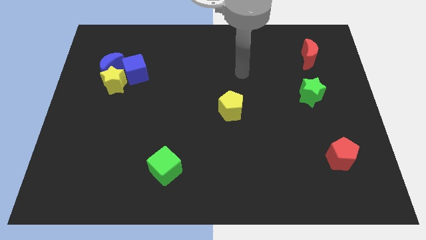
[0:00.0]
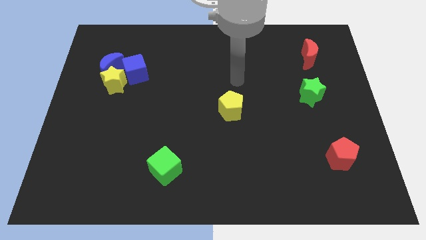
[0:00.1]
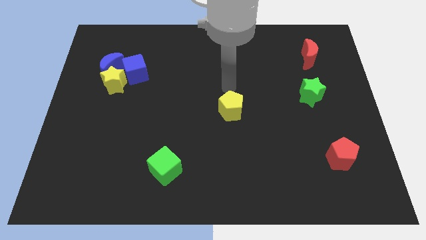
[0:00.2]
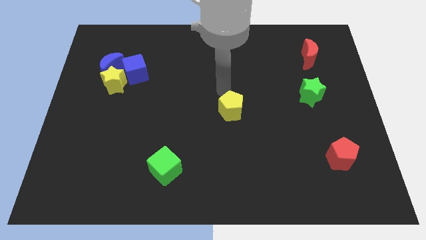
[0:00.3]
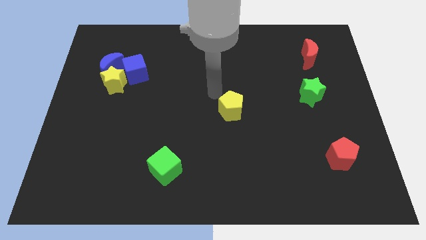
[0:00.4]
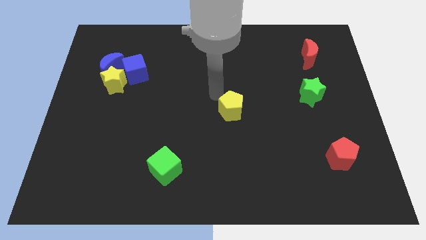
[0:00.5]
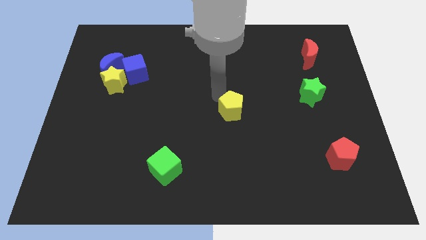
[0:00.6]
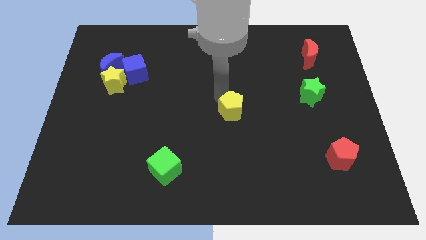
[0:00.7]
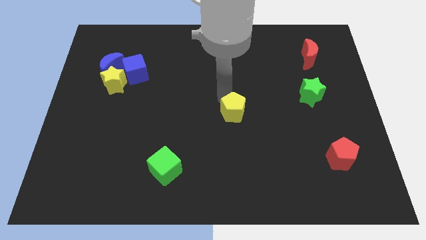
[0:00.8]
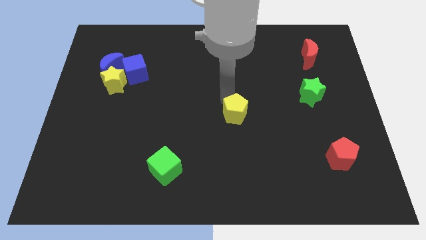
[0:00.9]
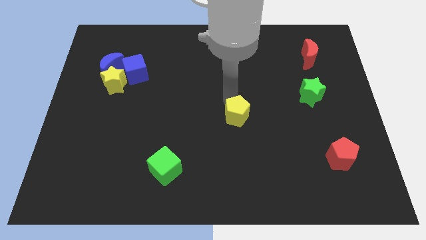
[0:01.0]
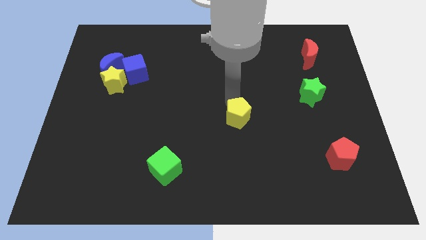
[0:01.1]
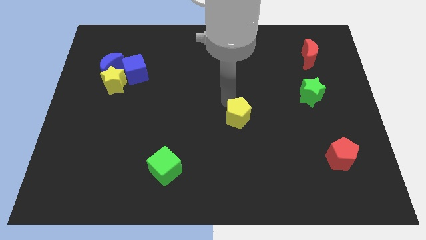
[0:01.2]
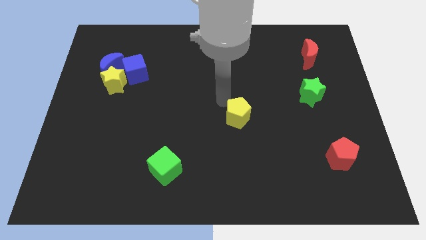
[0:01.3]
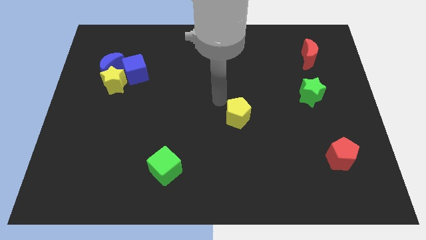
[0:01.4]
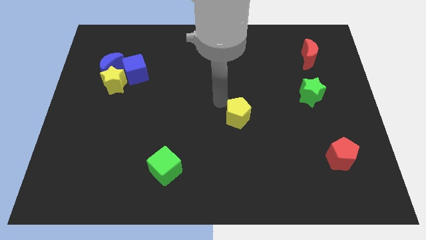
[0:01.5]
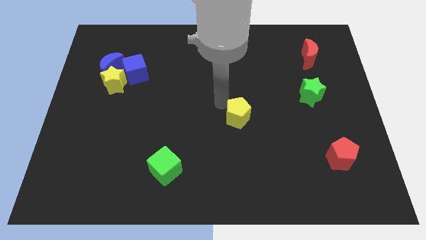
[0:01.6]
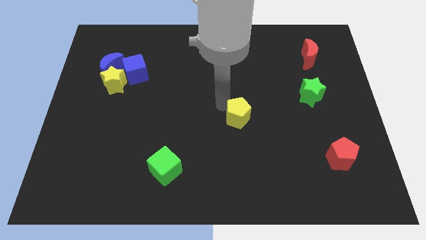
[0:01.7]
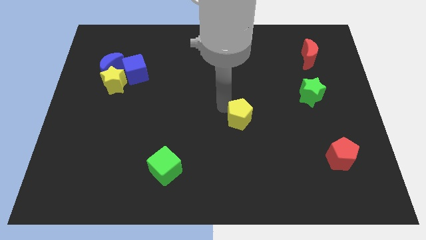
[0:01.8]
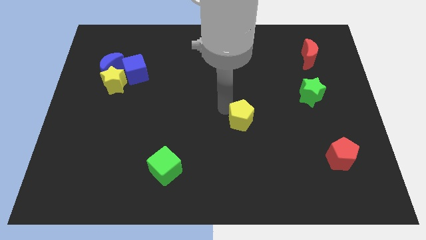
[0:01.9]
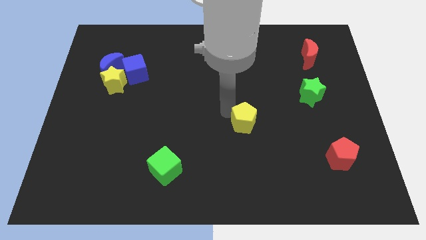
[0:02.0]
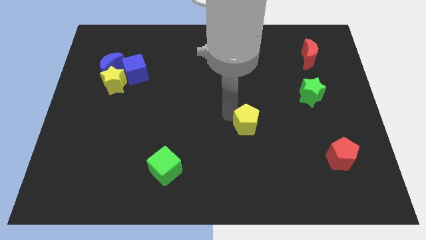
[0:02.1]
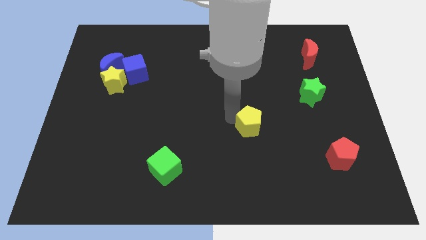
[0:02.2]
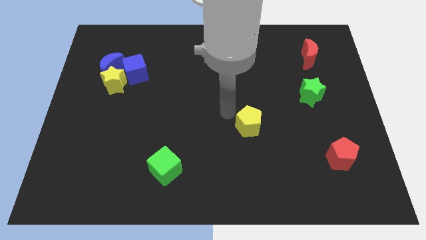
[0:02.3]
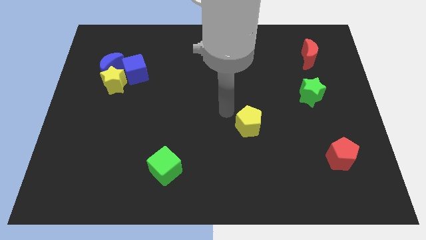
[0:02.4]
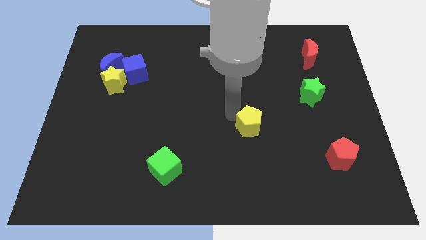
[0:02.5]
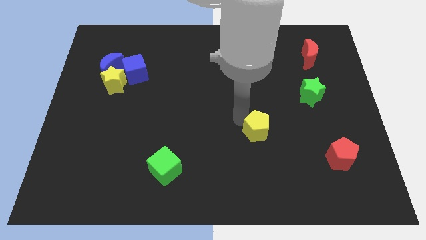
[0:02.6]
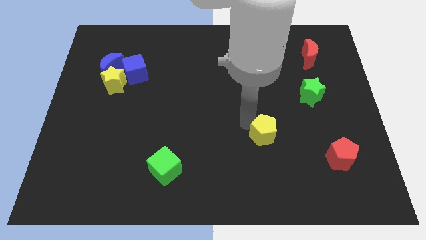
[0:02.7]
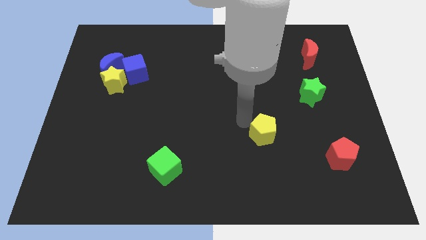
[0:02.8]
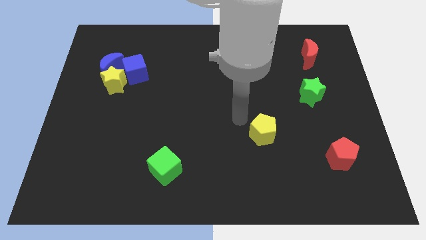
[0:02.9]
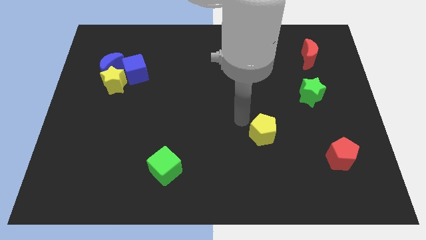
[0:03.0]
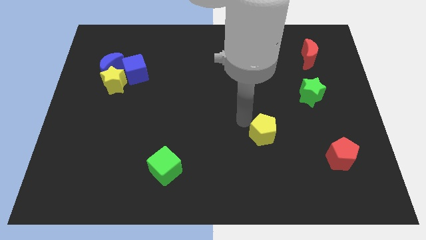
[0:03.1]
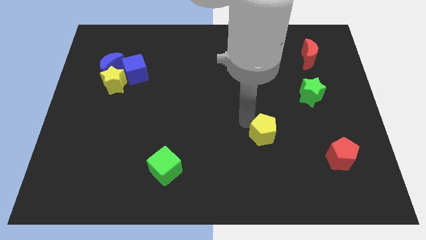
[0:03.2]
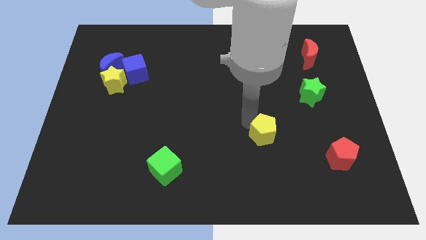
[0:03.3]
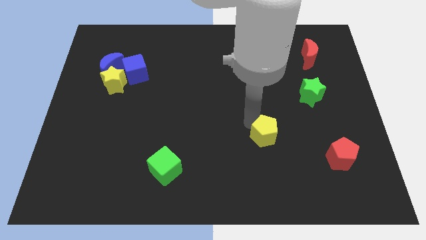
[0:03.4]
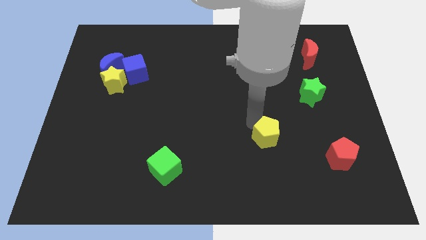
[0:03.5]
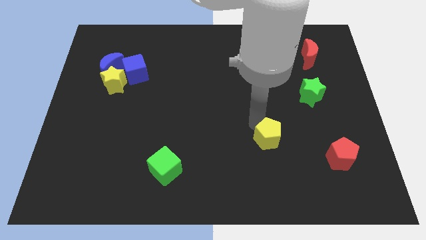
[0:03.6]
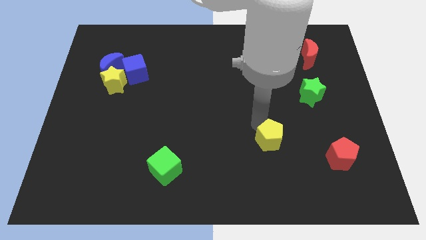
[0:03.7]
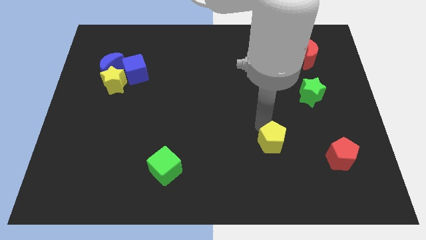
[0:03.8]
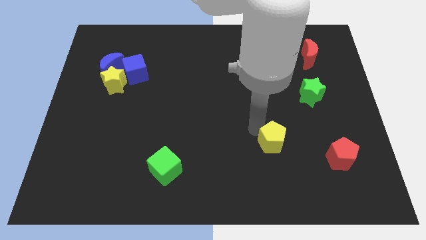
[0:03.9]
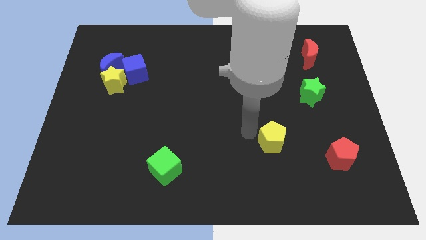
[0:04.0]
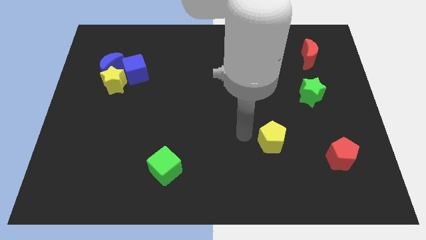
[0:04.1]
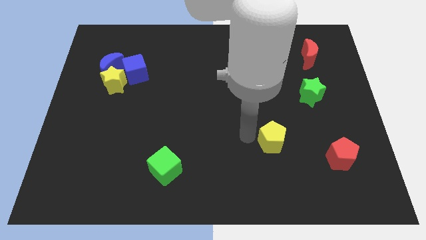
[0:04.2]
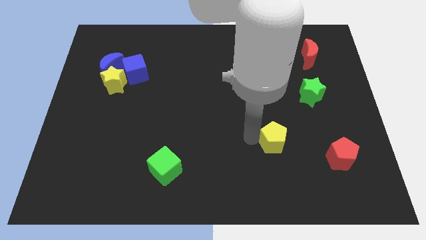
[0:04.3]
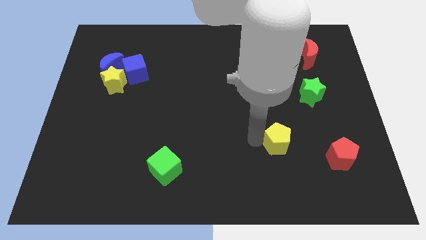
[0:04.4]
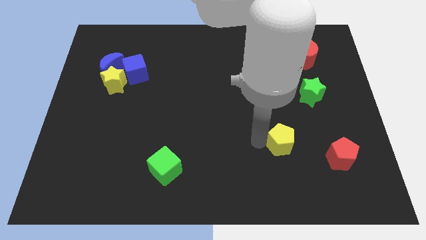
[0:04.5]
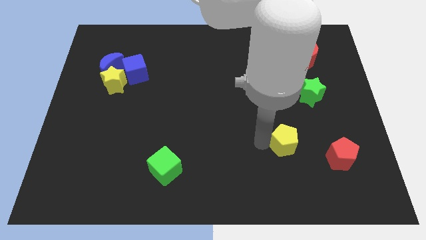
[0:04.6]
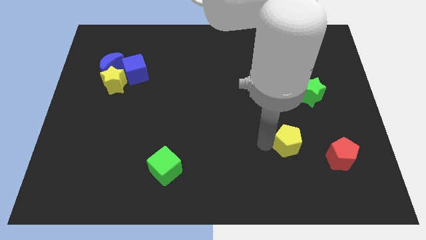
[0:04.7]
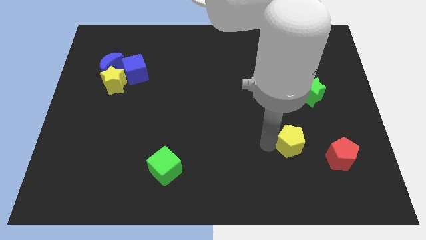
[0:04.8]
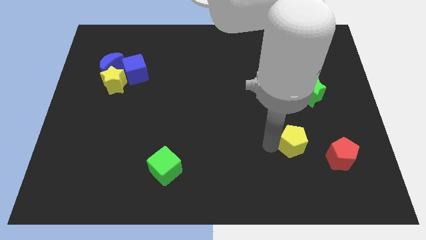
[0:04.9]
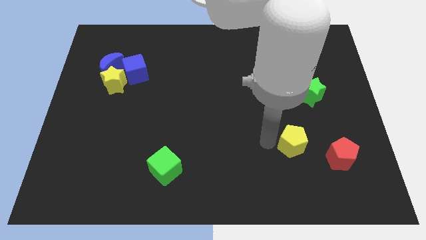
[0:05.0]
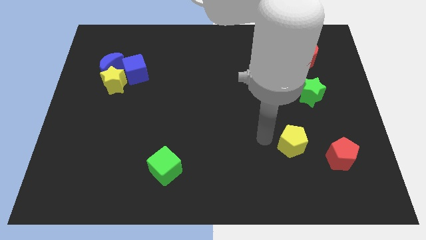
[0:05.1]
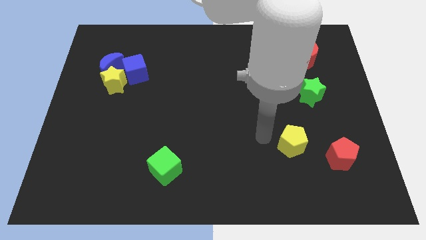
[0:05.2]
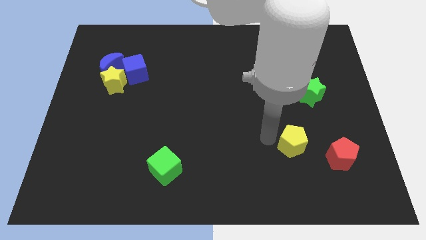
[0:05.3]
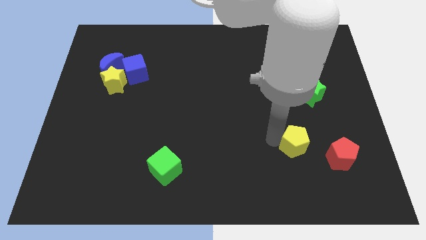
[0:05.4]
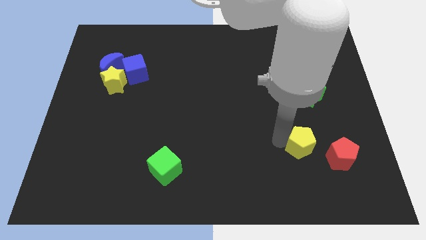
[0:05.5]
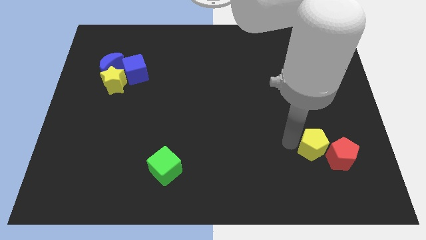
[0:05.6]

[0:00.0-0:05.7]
move the yellow pentagon next to the red pentagon

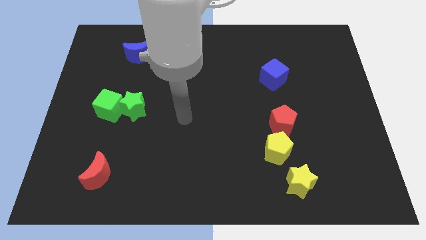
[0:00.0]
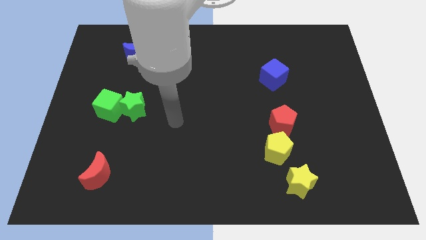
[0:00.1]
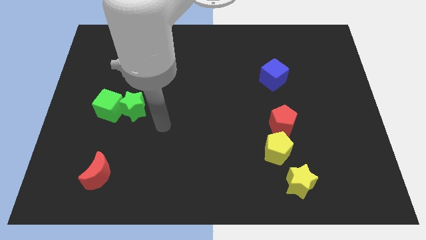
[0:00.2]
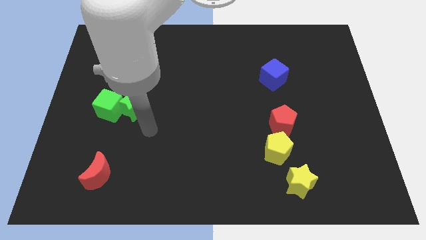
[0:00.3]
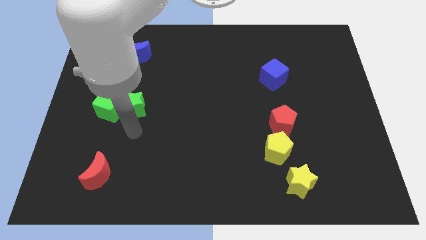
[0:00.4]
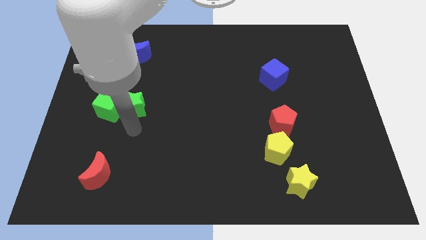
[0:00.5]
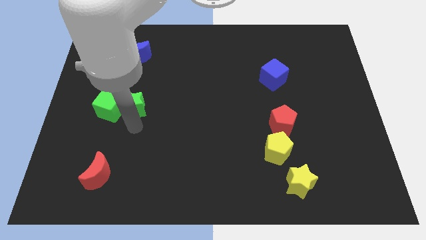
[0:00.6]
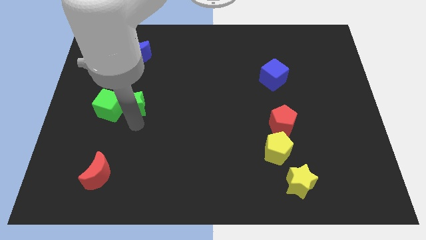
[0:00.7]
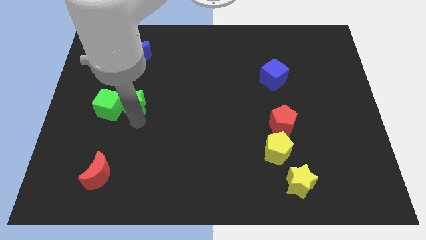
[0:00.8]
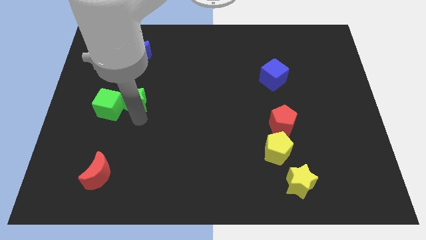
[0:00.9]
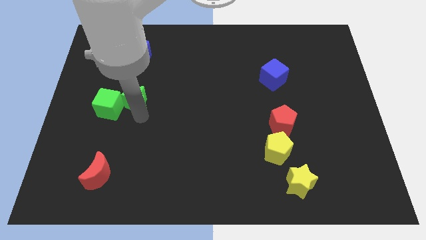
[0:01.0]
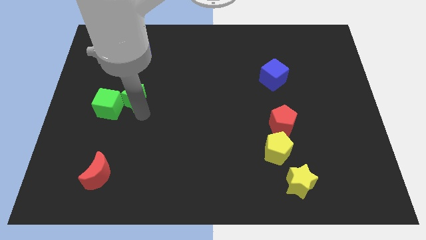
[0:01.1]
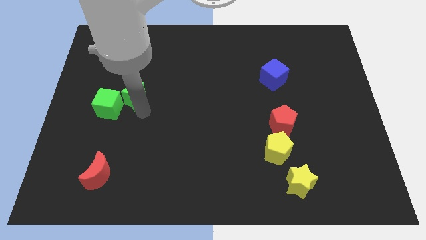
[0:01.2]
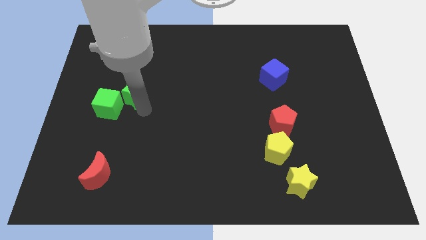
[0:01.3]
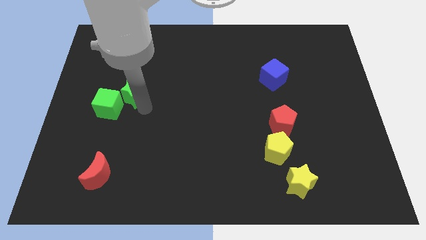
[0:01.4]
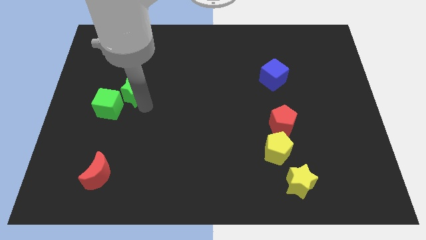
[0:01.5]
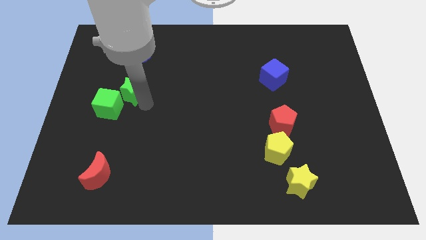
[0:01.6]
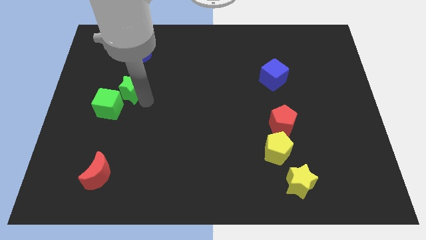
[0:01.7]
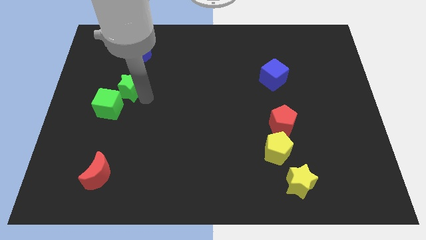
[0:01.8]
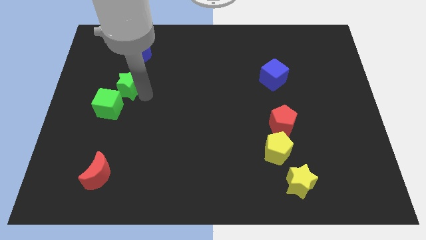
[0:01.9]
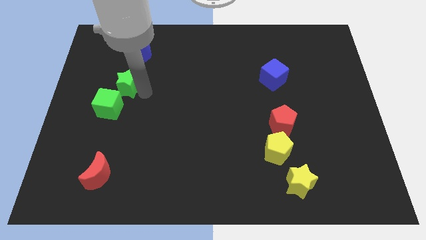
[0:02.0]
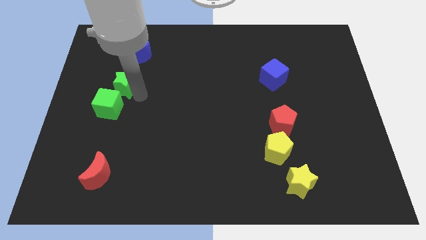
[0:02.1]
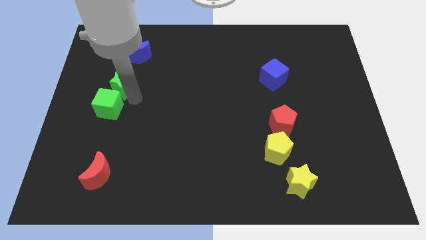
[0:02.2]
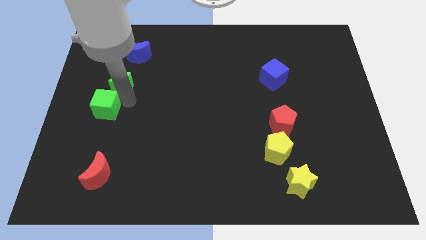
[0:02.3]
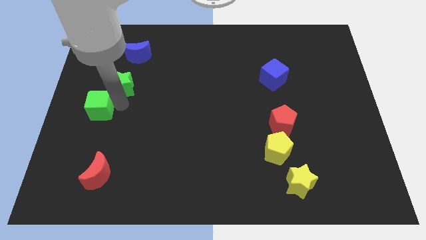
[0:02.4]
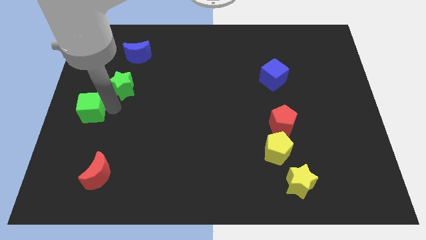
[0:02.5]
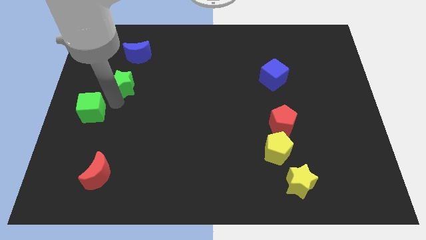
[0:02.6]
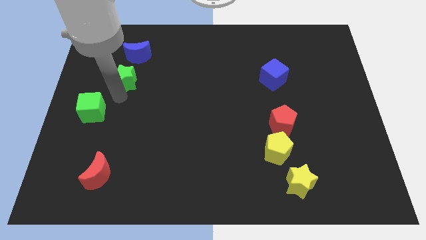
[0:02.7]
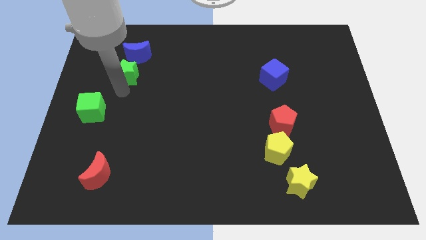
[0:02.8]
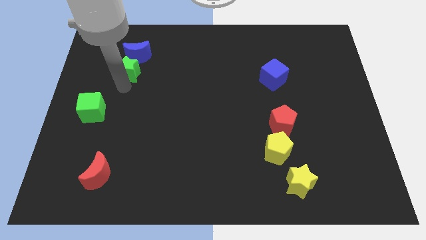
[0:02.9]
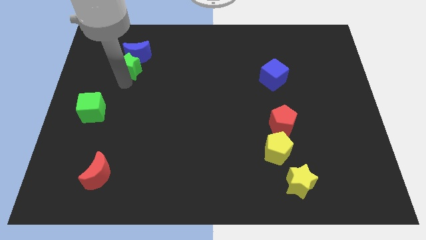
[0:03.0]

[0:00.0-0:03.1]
slide the green star next to the blue moon
